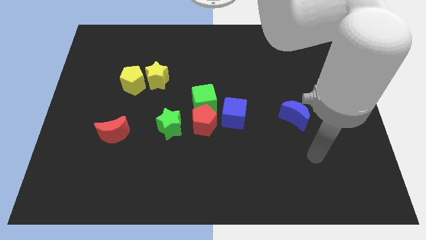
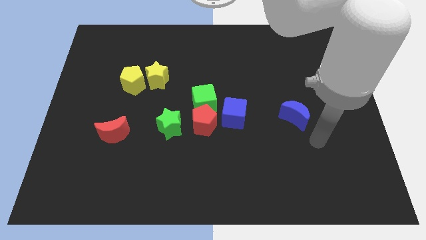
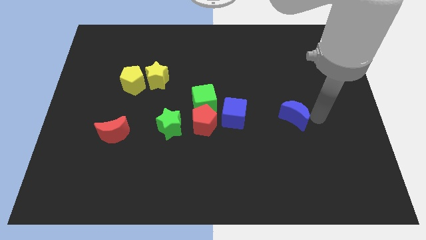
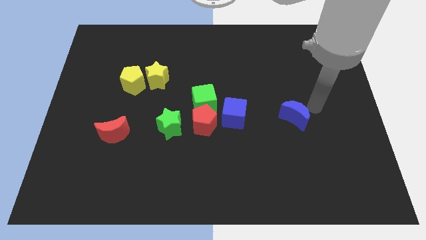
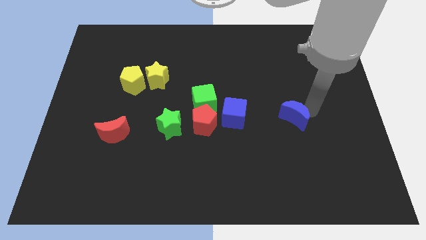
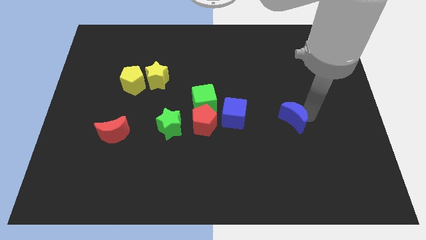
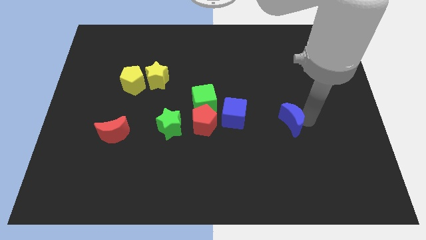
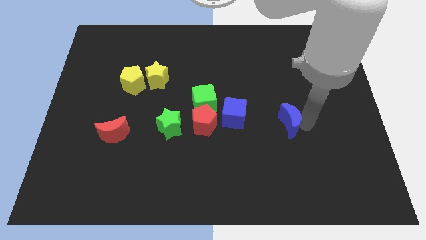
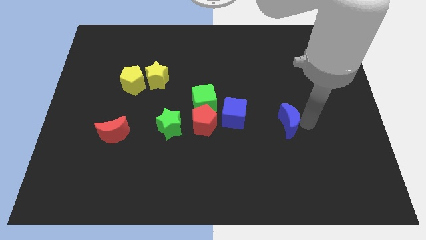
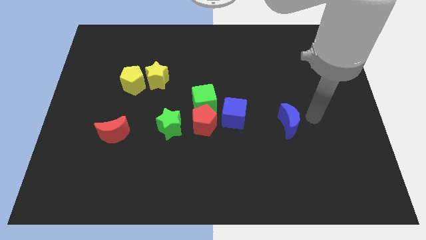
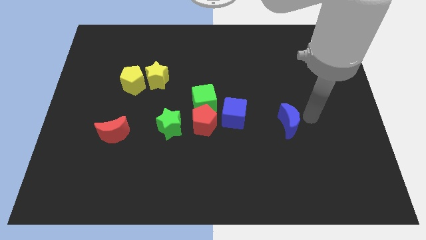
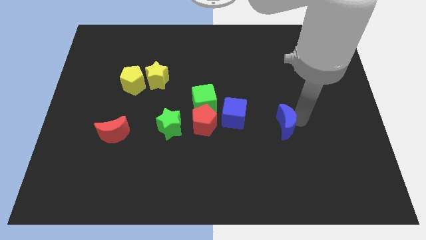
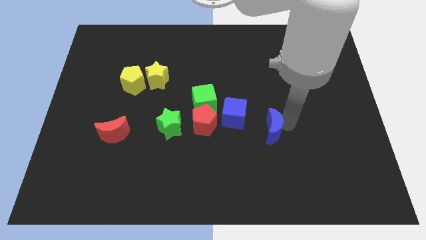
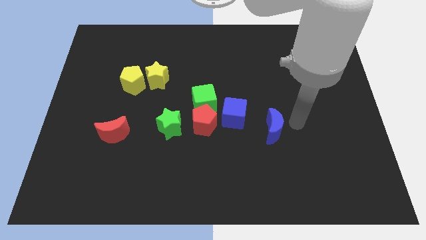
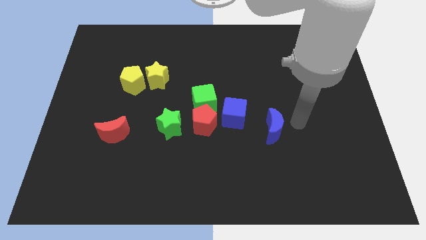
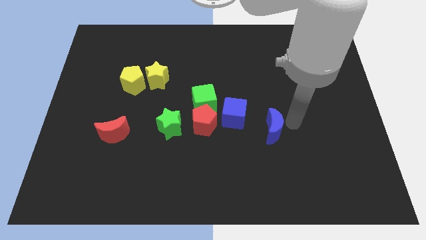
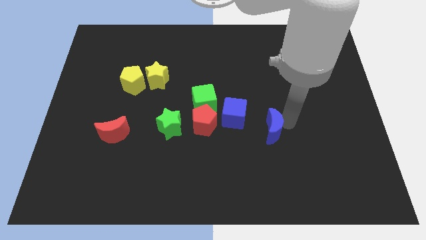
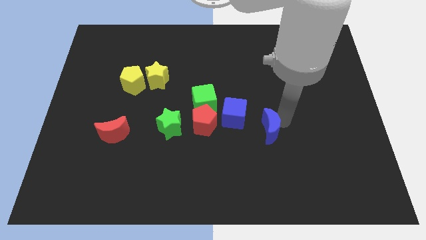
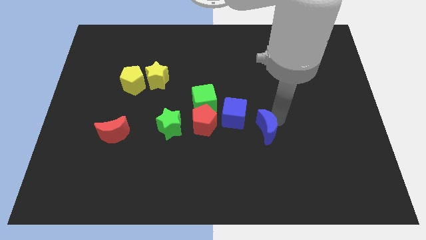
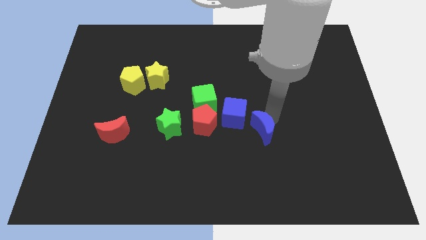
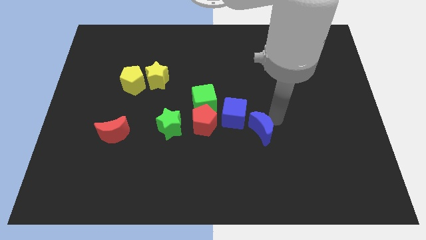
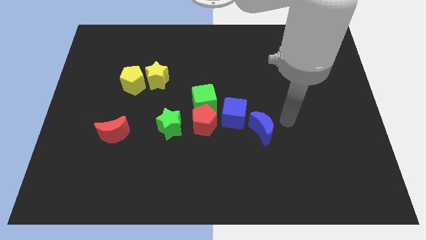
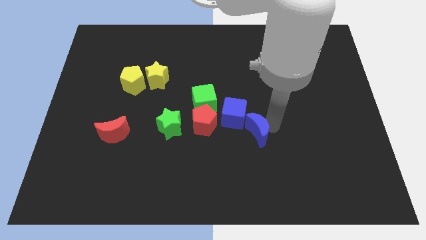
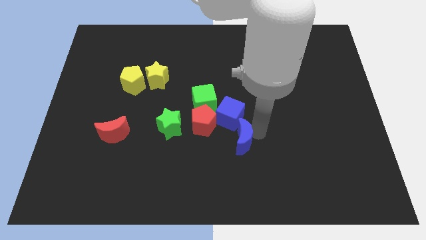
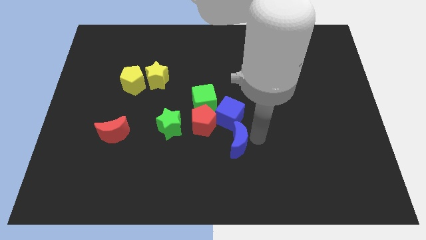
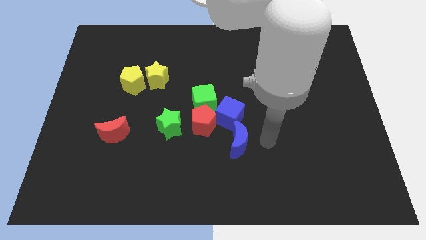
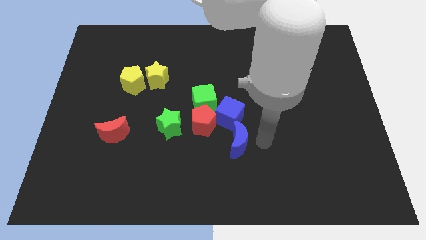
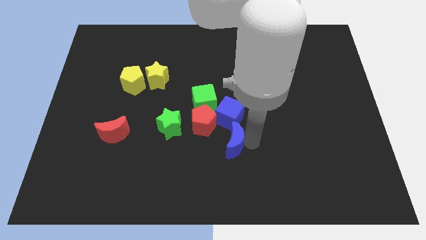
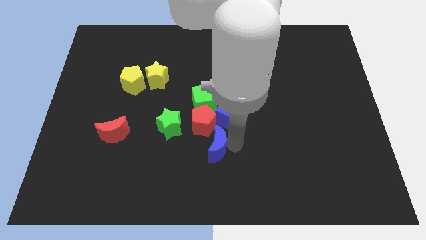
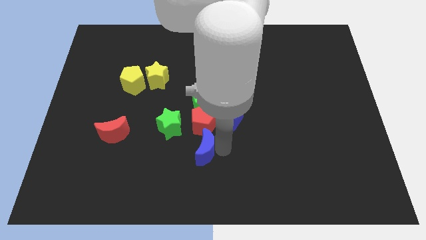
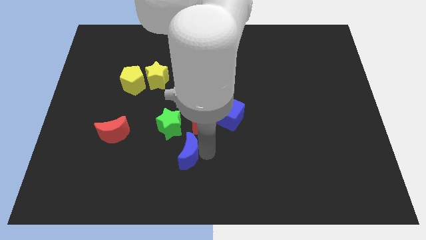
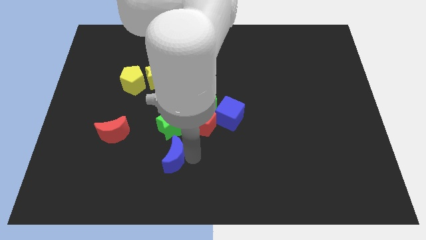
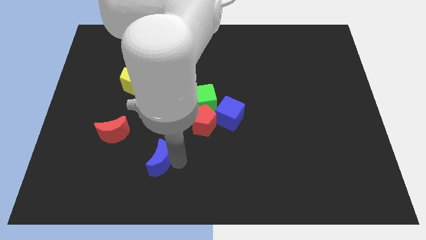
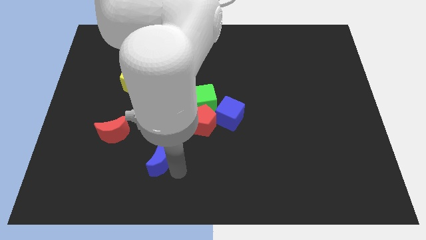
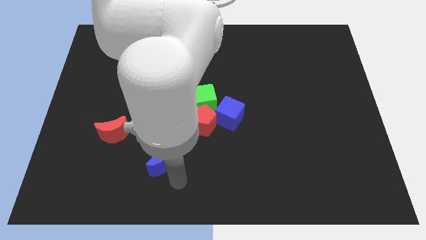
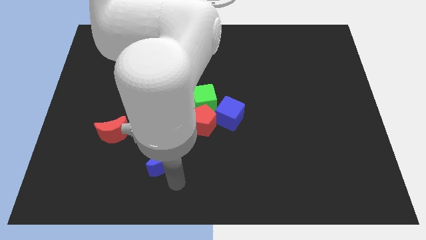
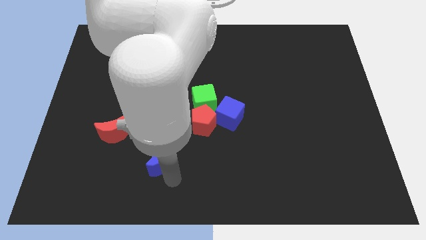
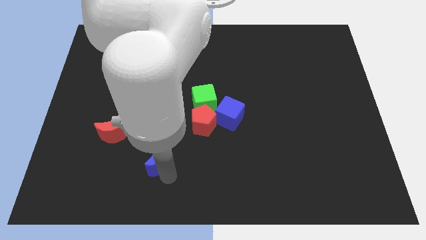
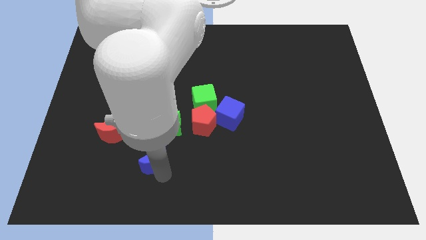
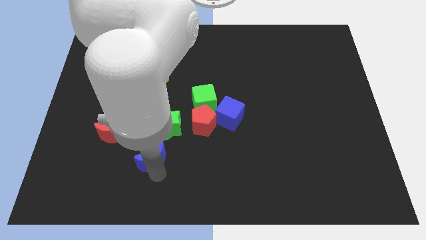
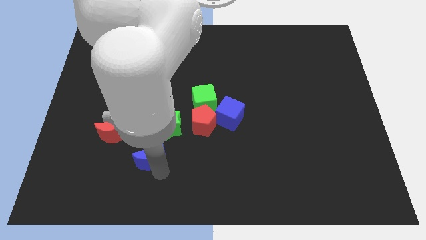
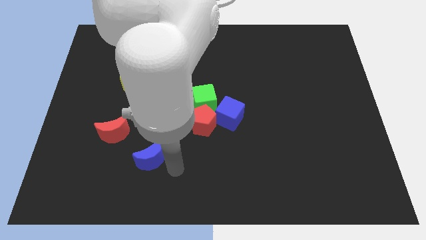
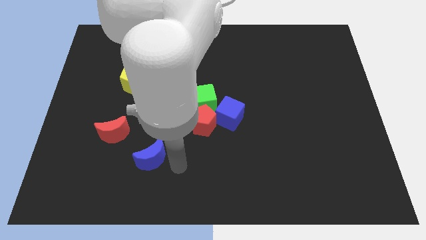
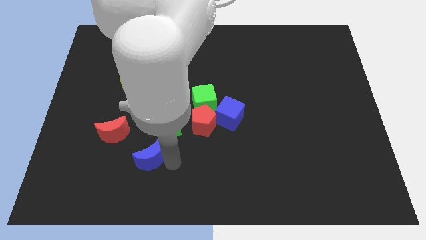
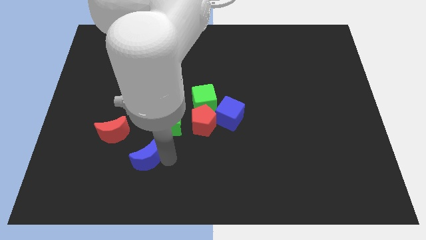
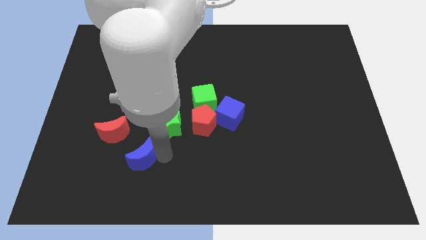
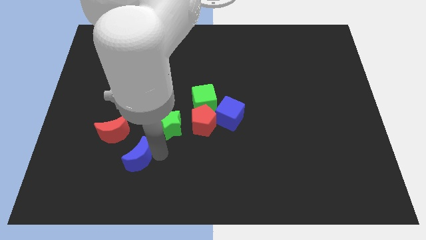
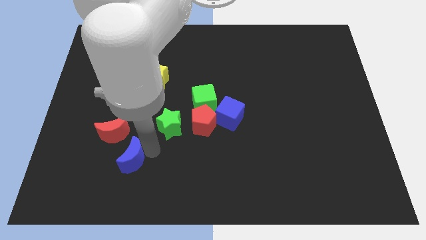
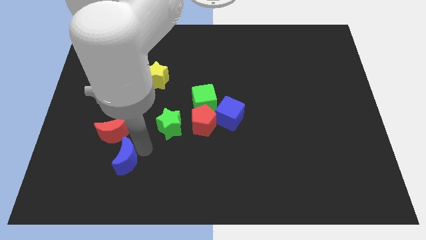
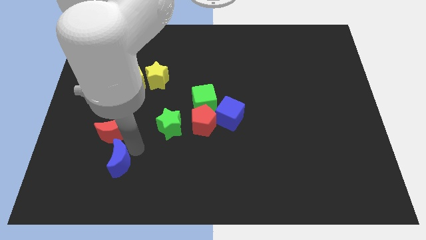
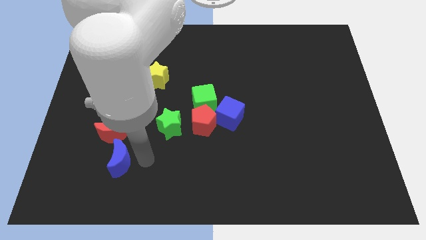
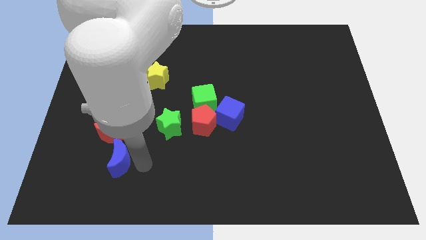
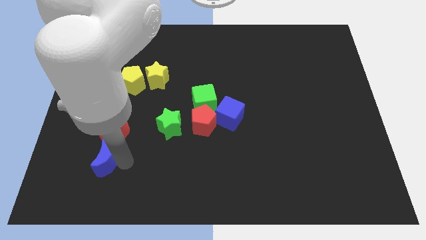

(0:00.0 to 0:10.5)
push the blue moon to the bottom left side of the red moon

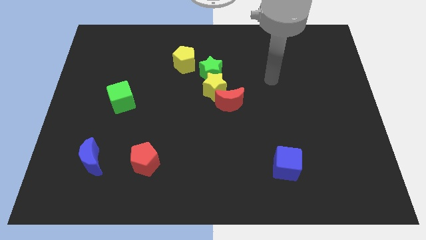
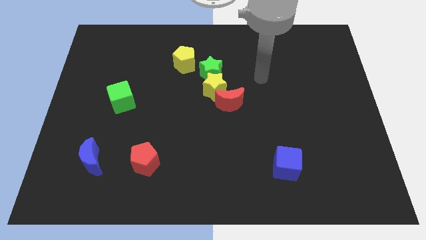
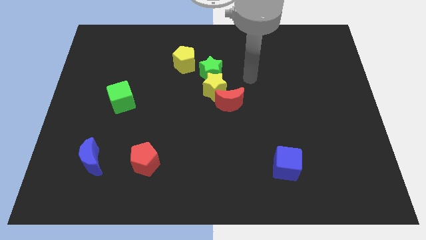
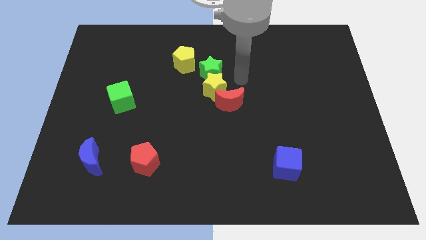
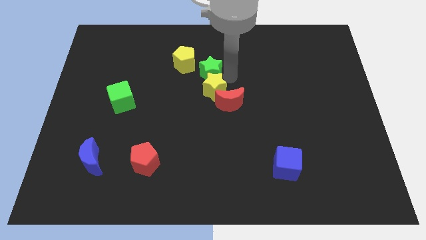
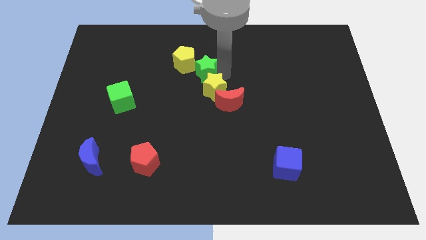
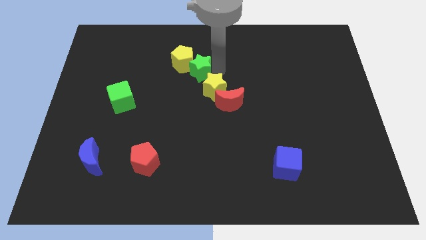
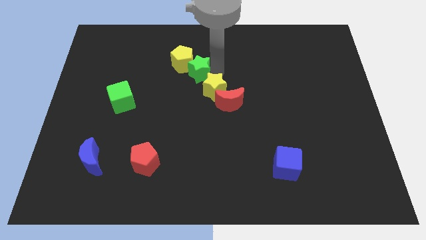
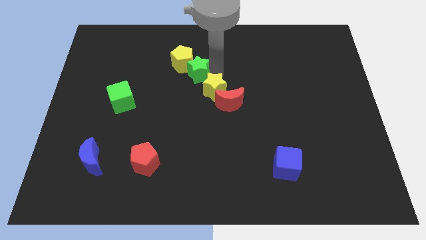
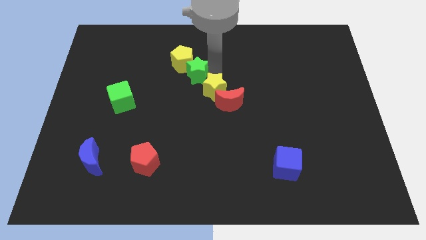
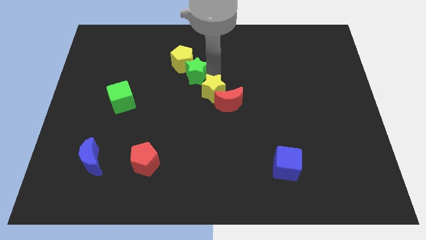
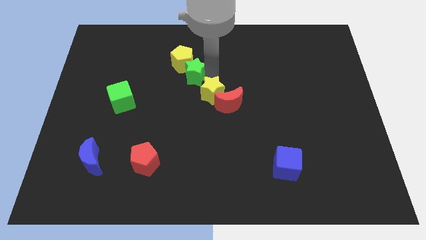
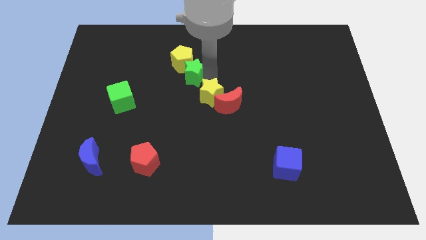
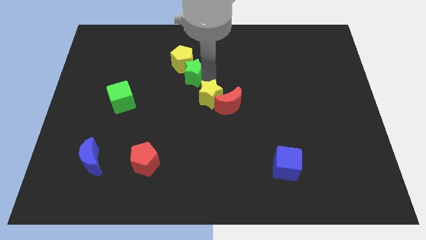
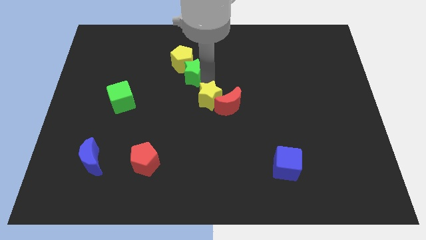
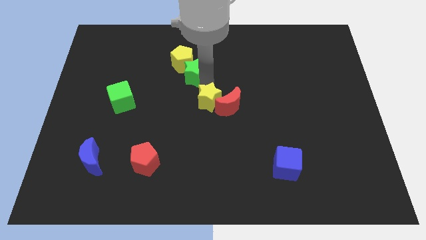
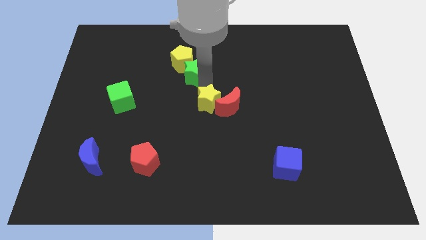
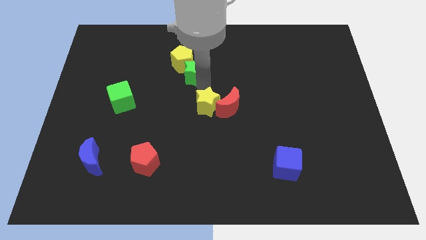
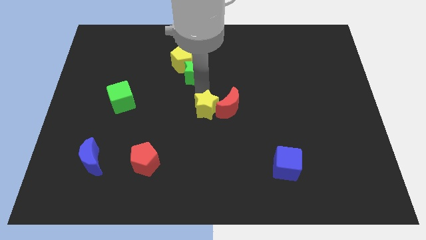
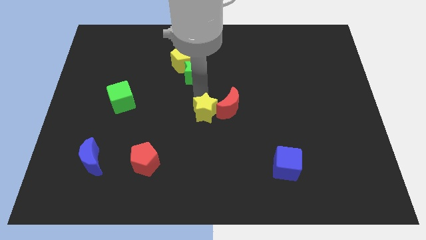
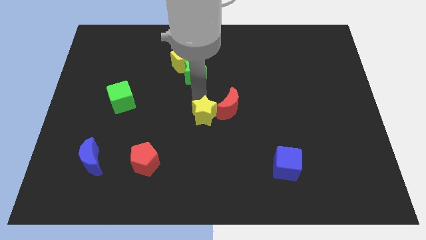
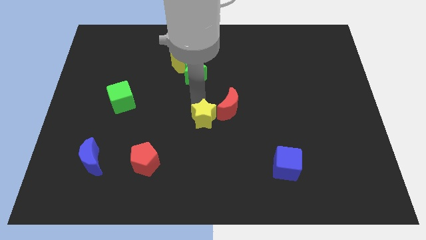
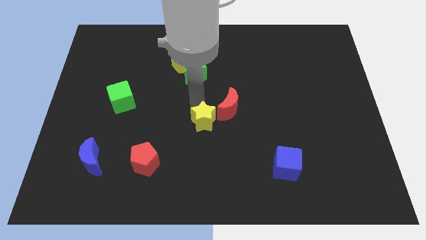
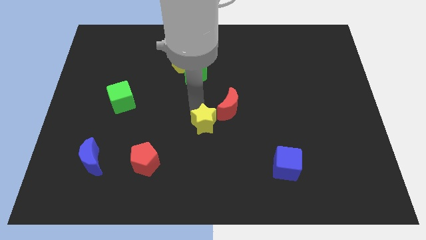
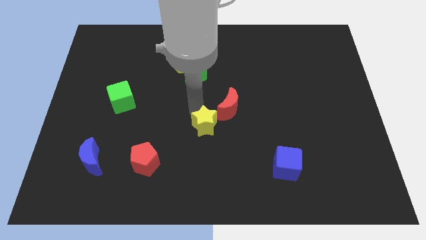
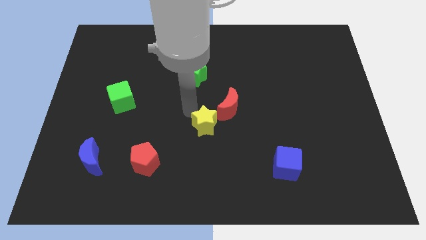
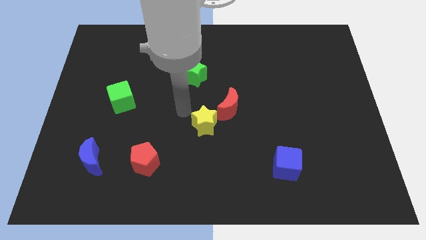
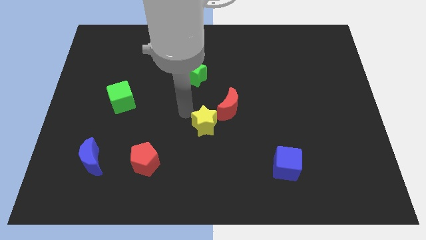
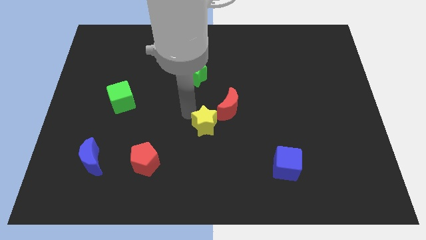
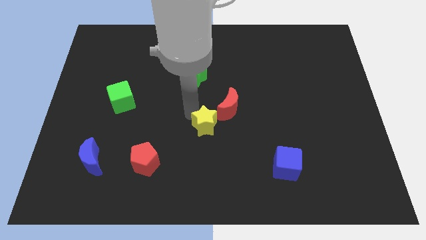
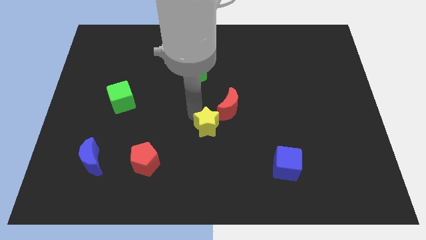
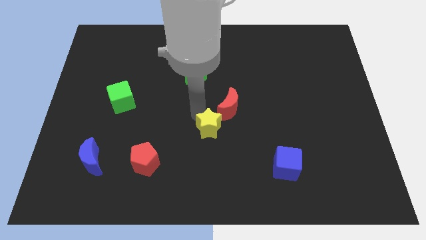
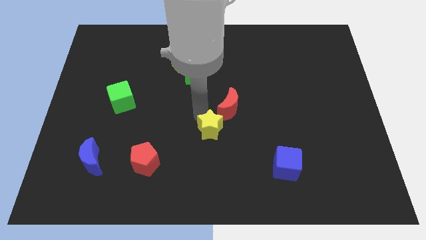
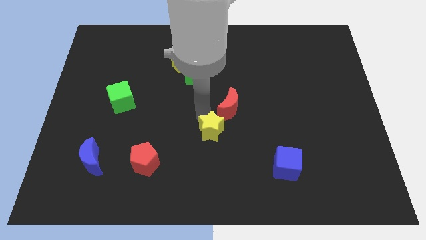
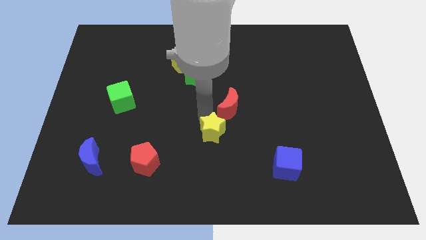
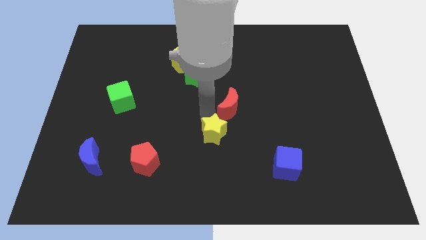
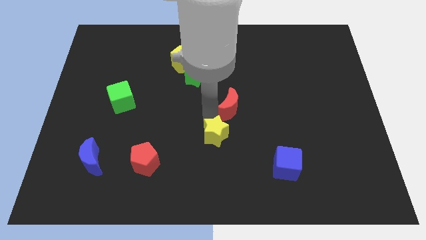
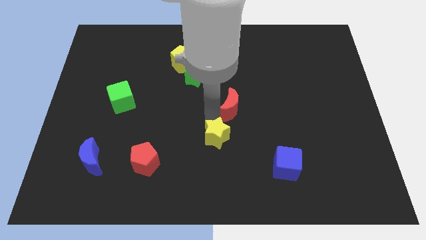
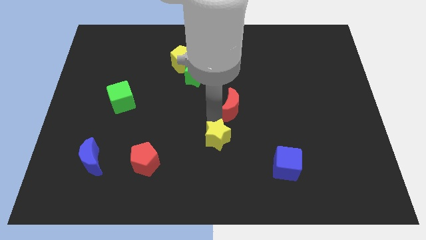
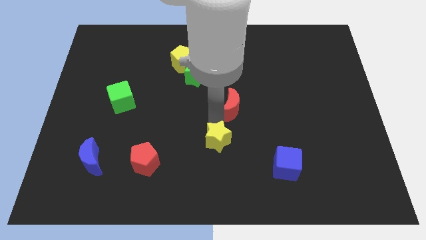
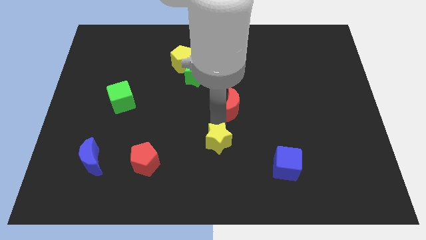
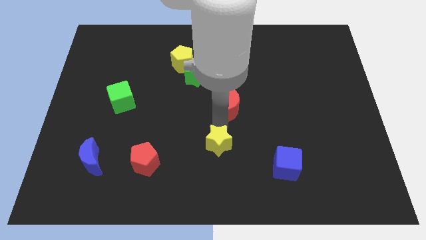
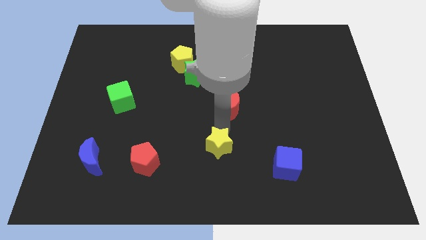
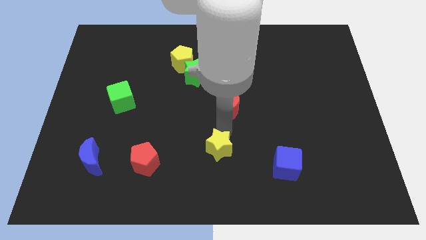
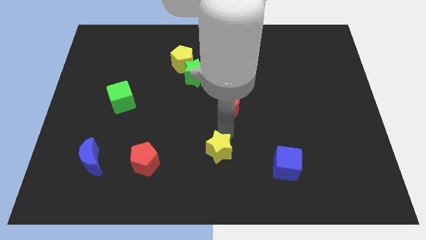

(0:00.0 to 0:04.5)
slide the yellow star just left of the blue cube
